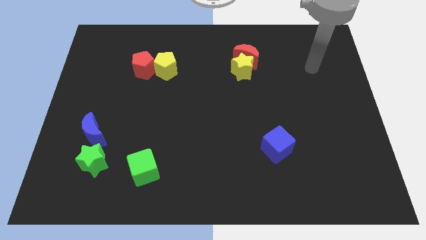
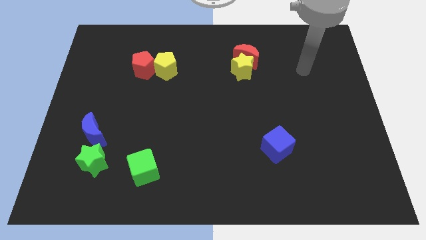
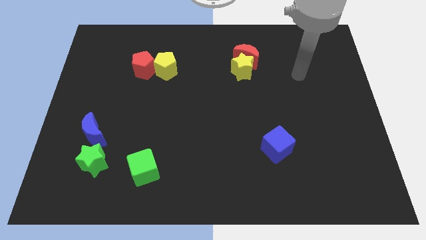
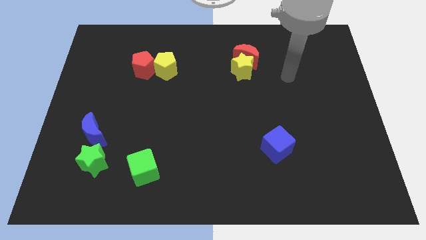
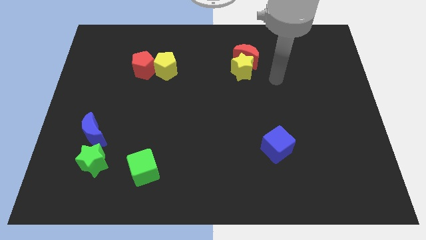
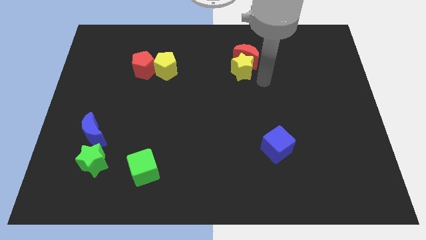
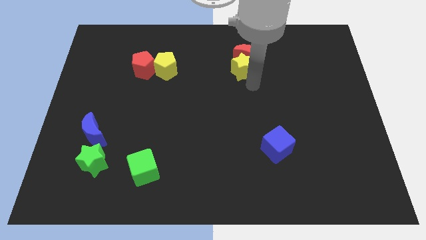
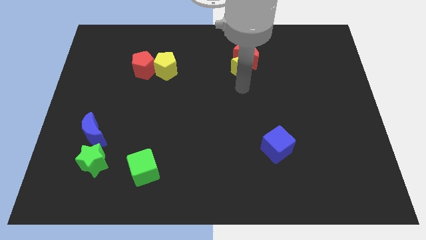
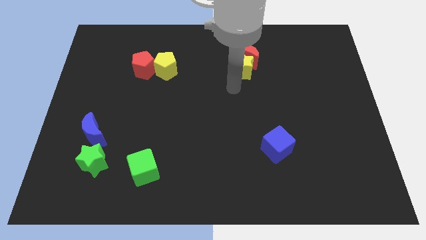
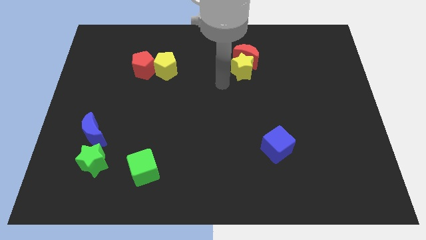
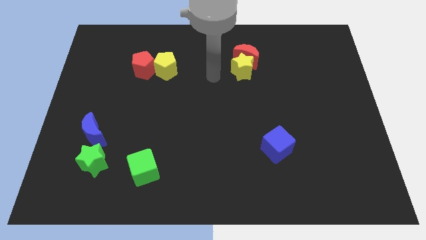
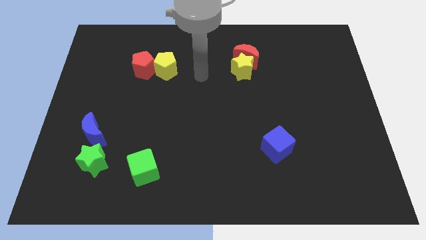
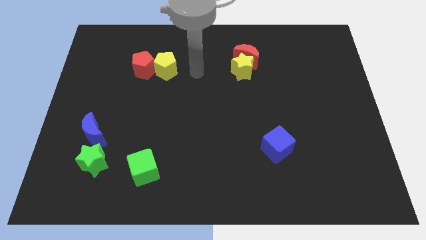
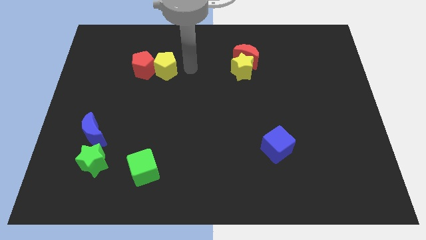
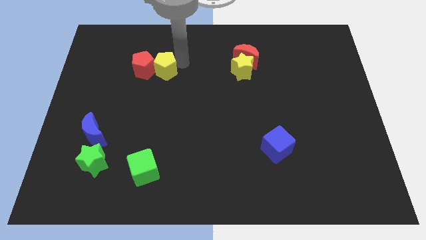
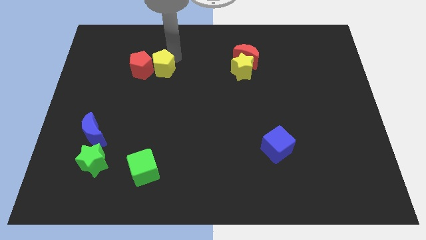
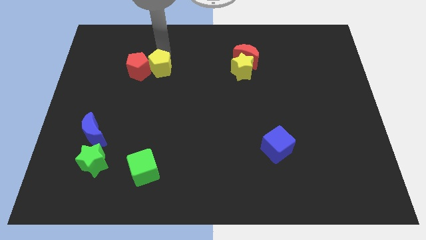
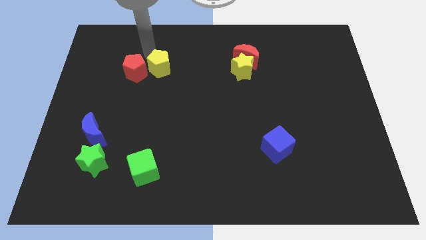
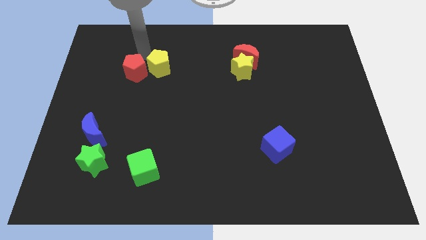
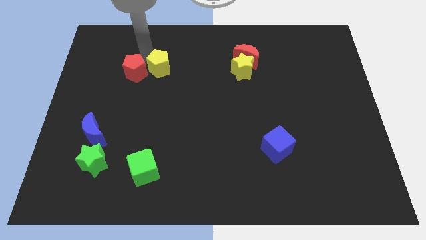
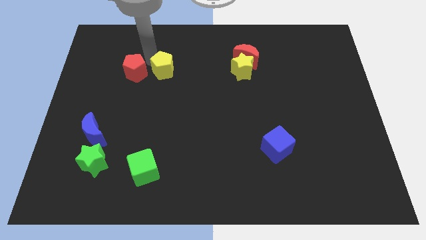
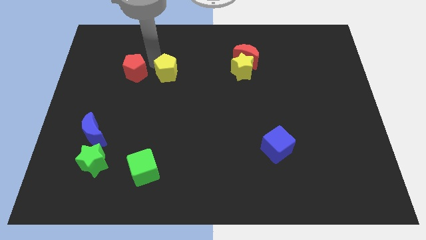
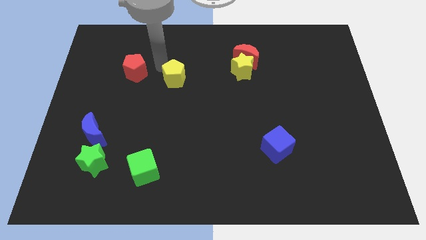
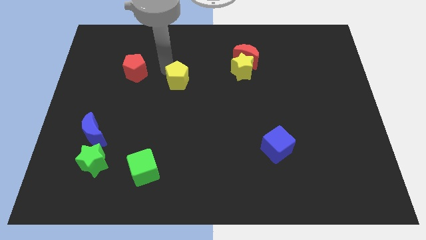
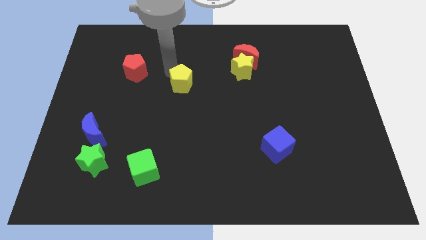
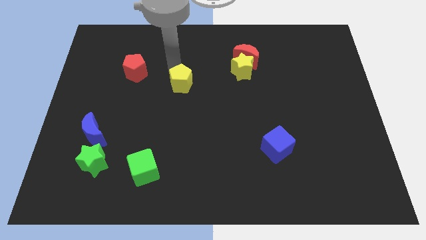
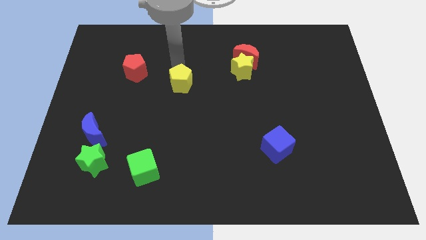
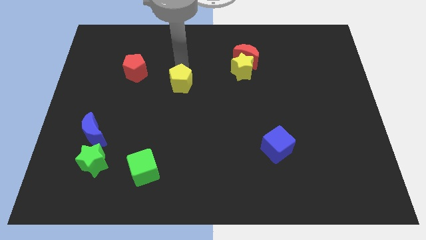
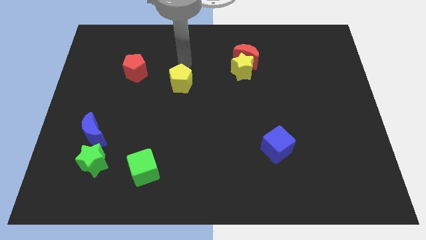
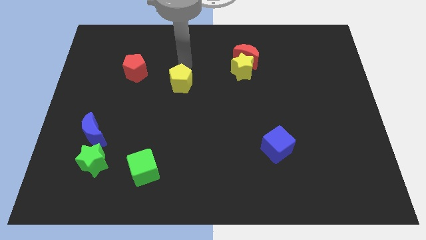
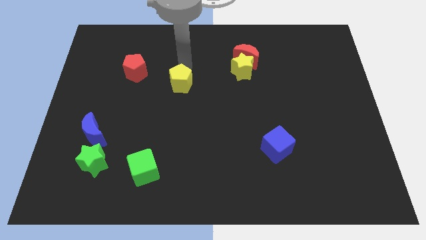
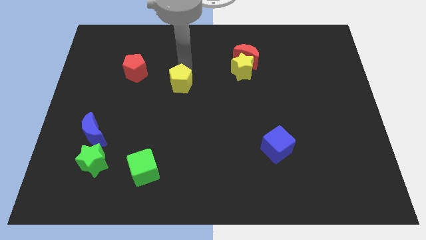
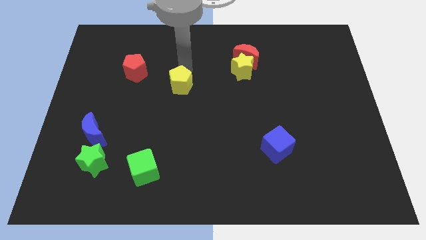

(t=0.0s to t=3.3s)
move the yellow pentagon downwards and then to the right a little bit

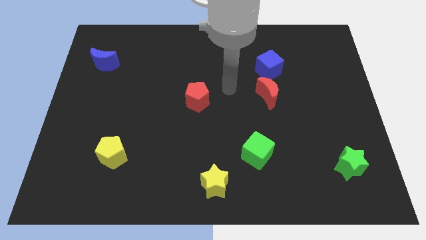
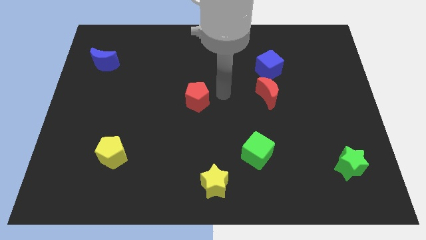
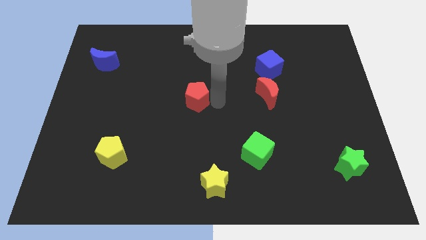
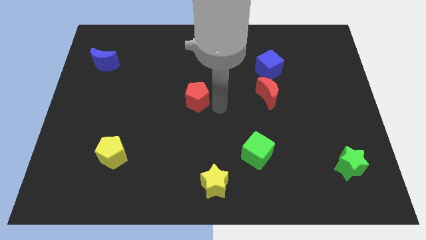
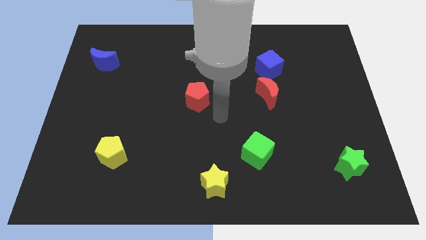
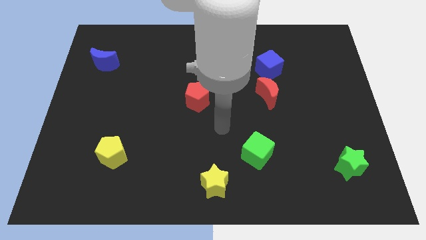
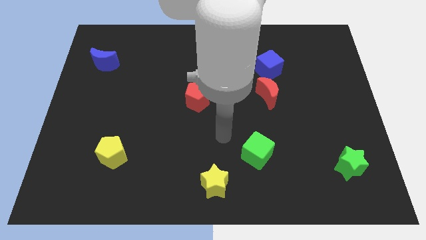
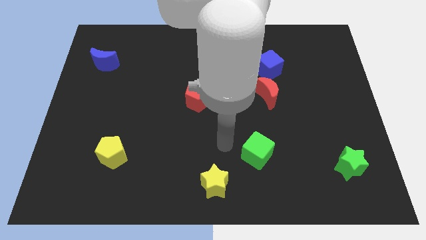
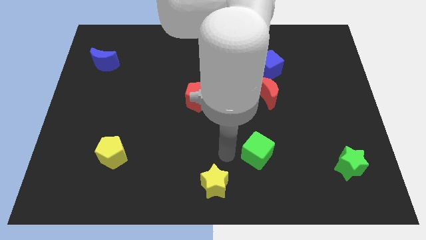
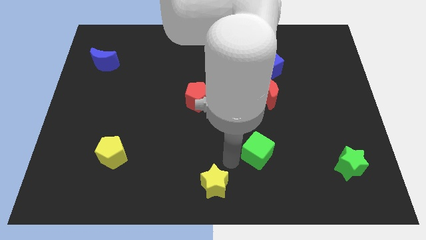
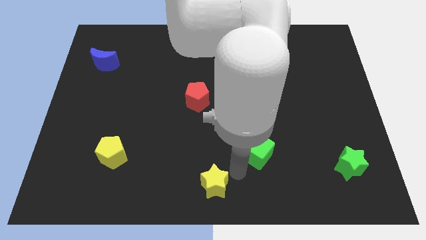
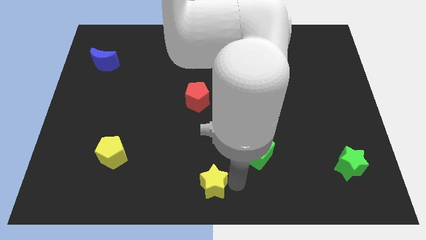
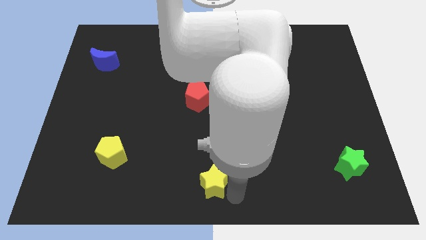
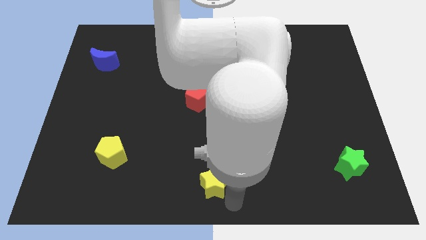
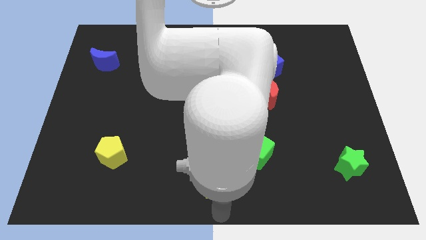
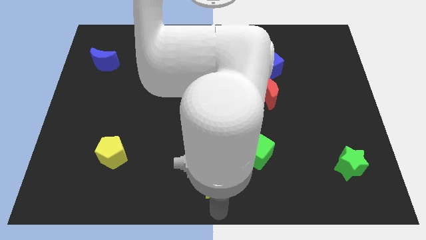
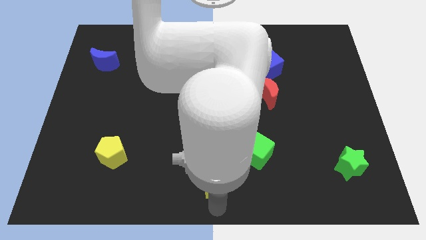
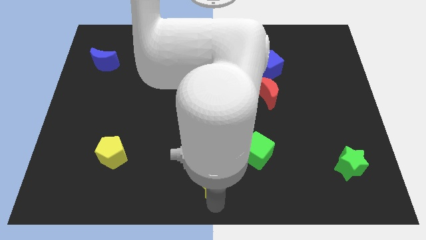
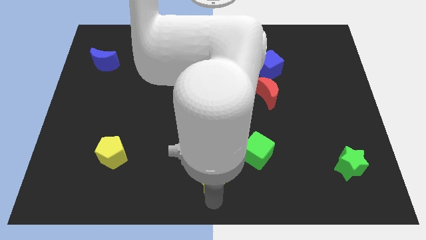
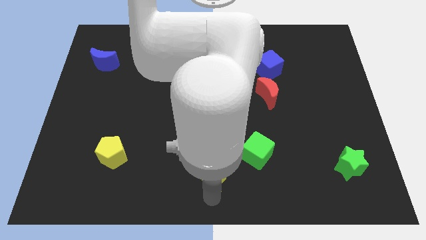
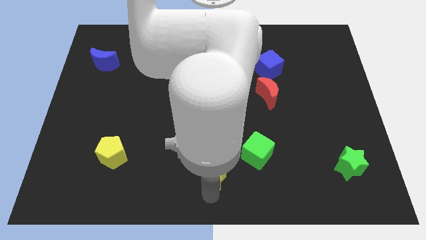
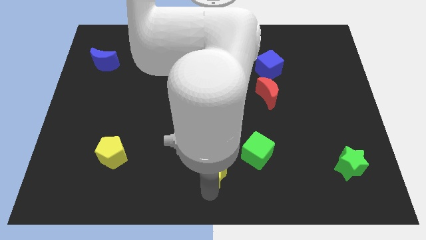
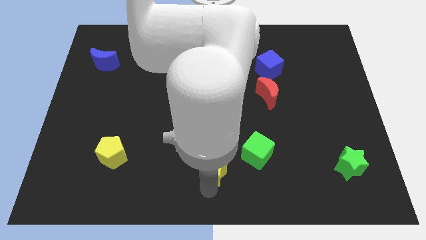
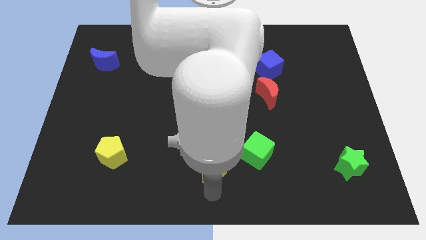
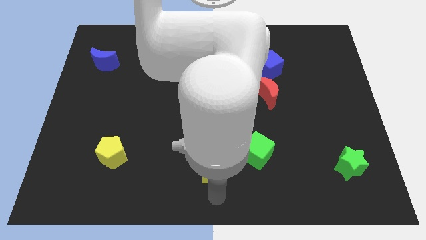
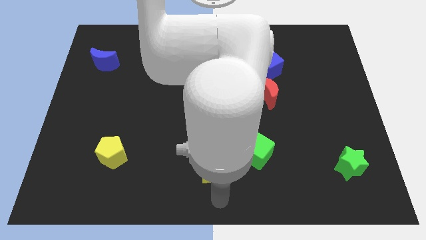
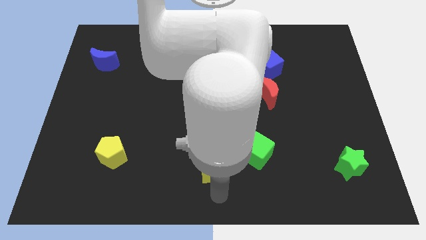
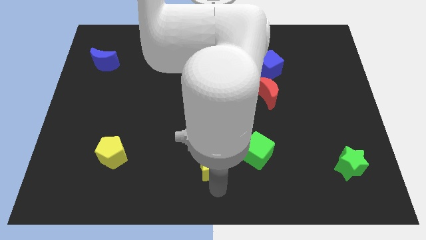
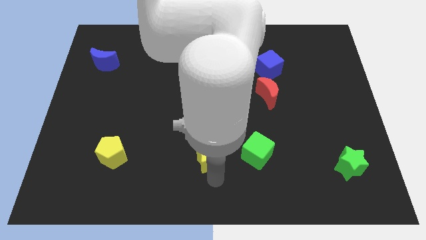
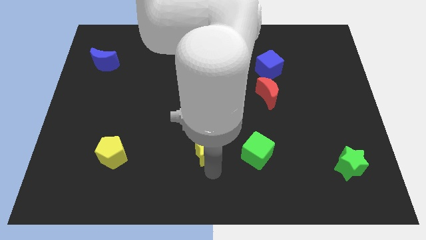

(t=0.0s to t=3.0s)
slide the yellow star upwards a bit

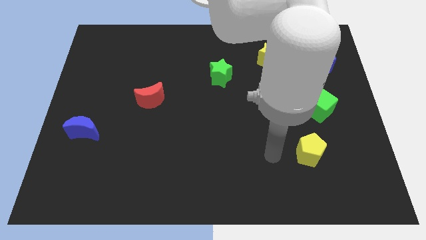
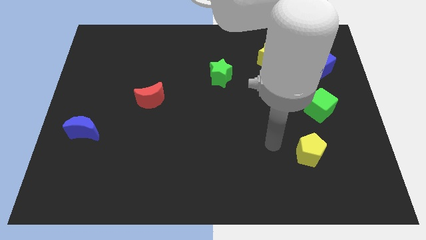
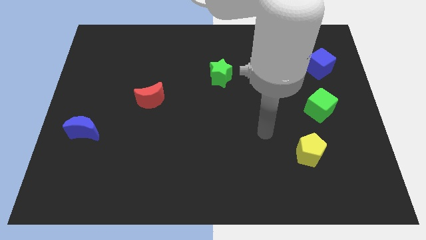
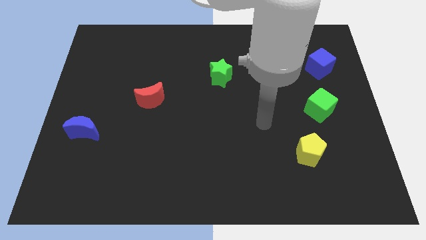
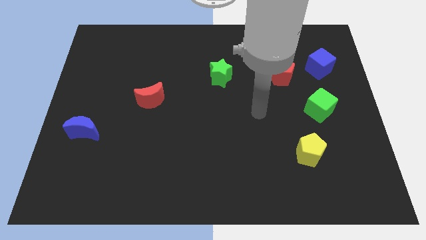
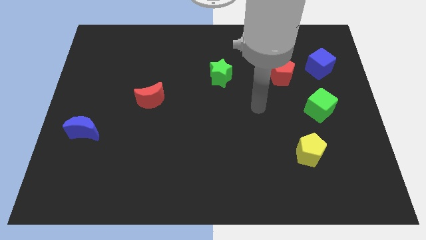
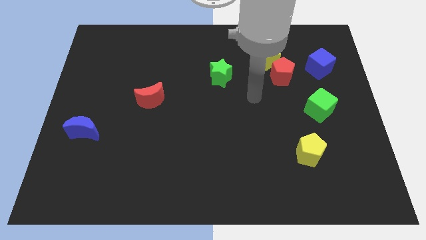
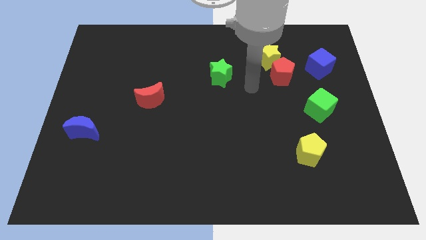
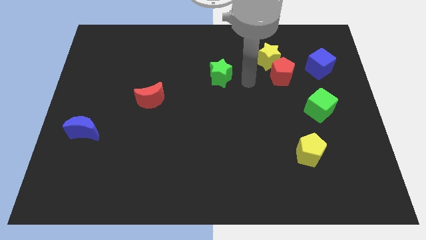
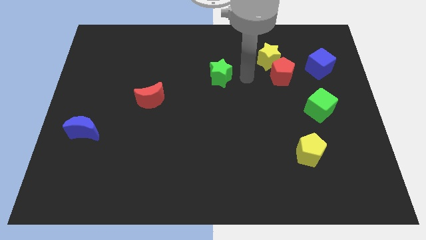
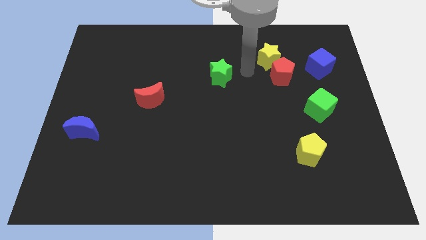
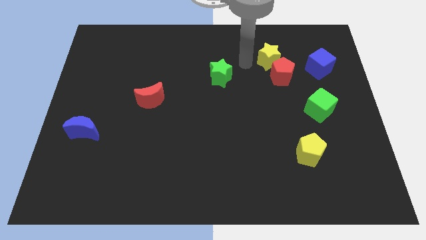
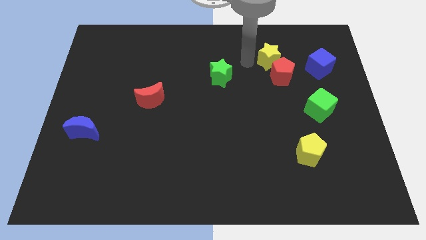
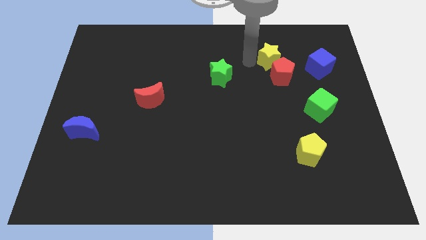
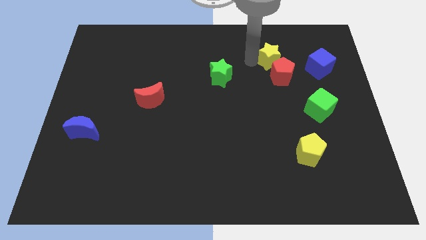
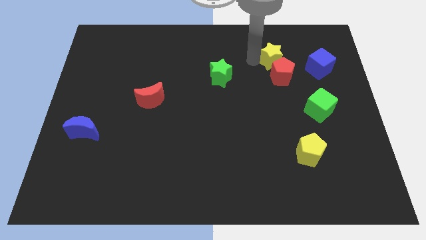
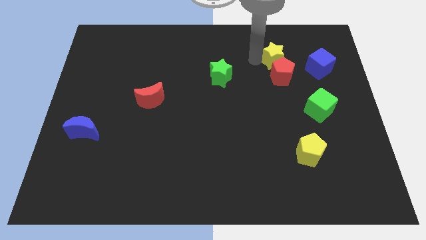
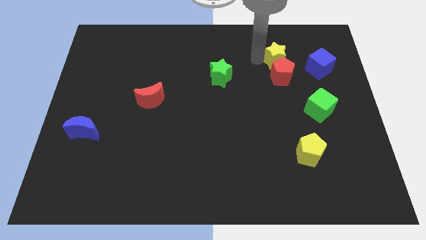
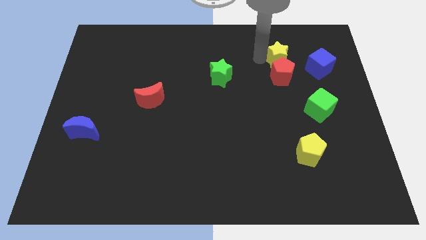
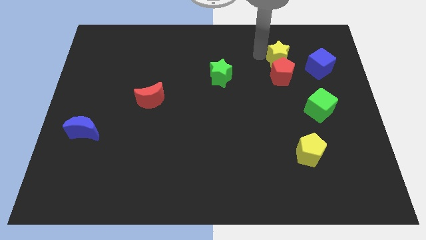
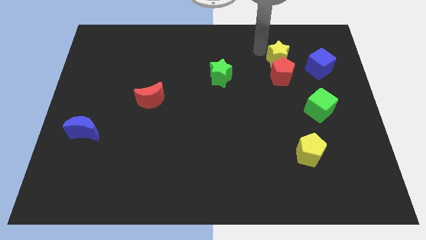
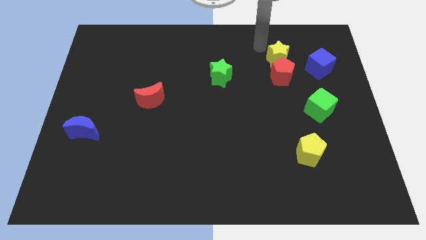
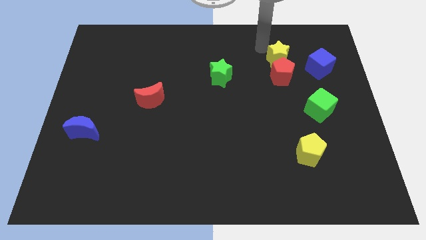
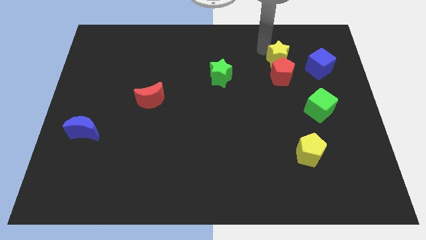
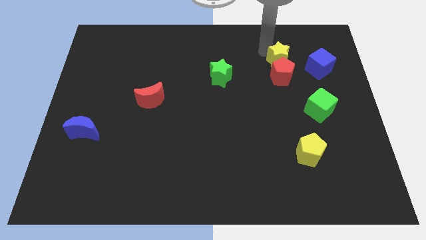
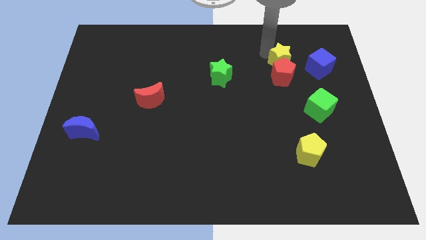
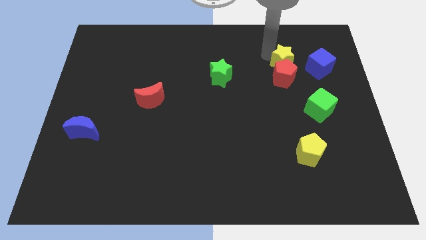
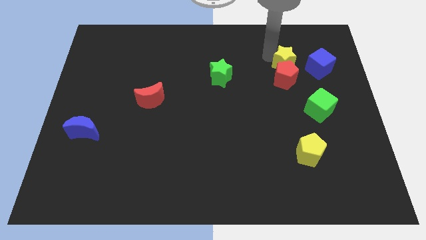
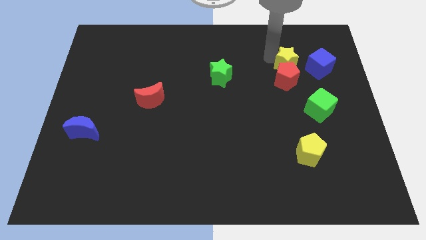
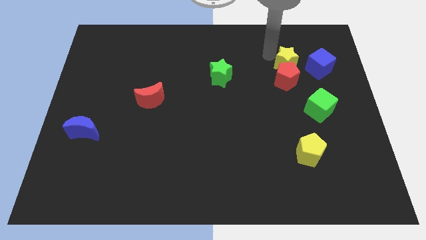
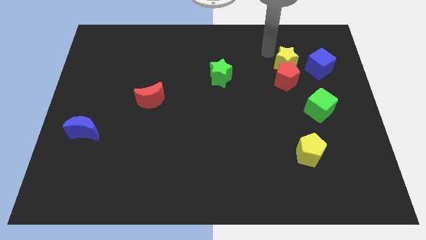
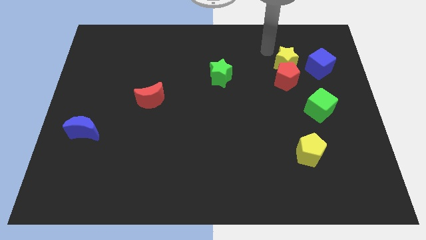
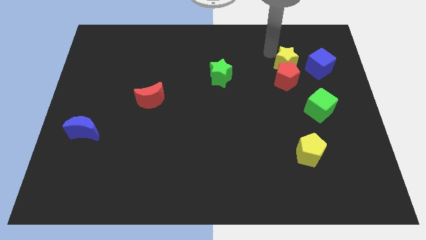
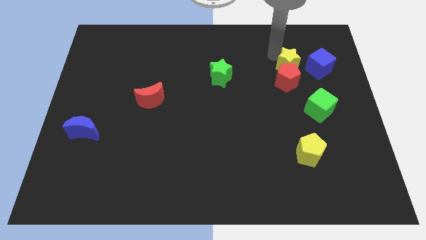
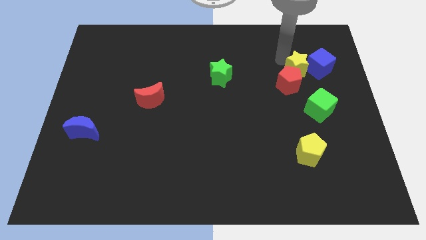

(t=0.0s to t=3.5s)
slide the yellow star a bit downwards and right
